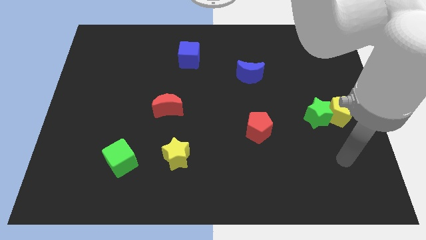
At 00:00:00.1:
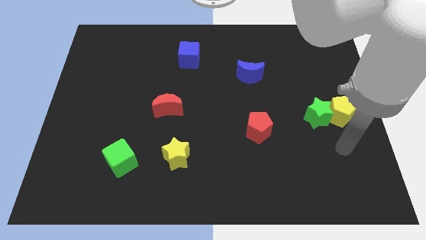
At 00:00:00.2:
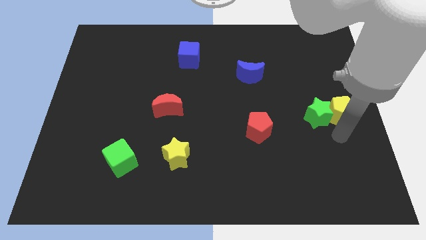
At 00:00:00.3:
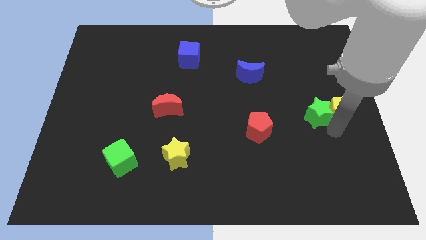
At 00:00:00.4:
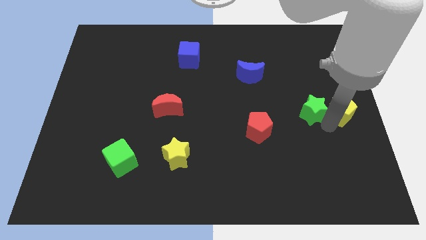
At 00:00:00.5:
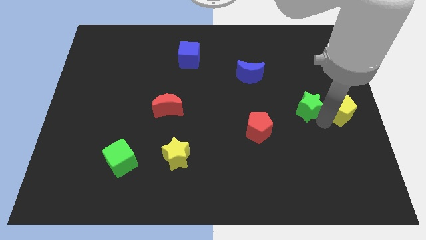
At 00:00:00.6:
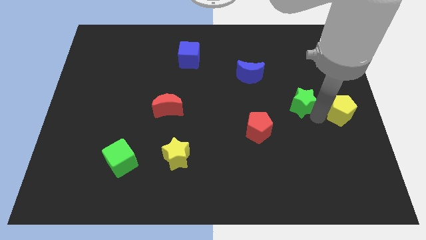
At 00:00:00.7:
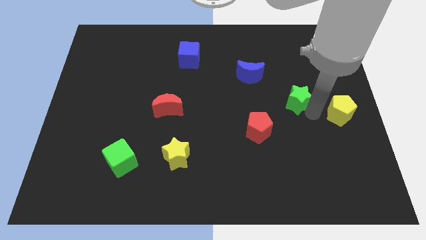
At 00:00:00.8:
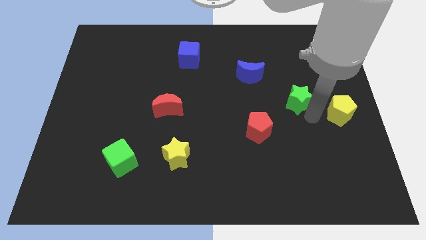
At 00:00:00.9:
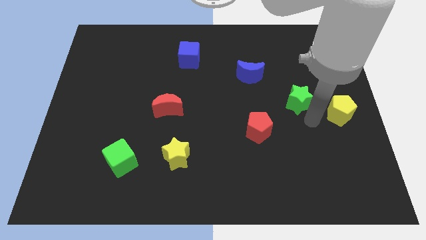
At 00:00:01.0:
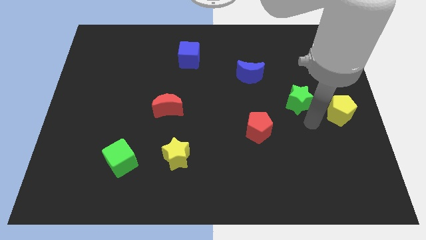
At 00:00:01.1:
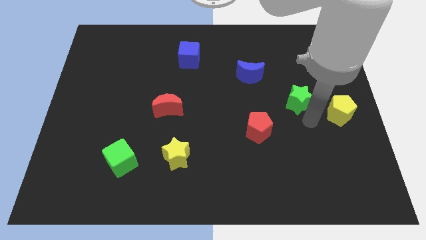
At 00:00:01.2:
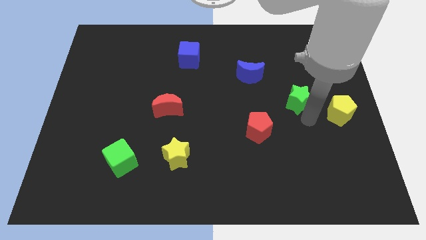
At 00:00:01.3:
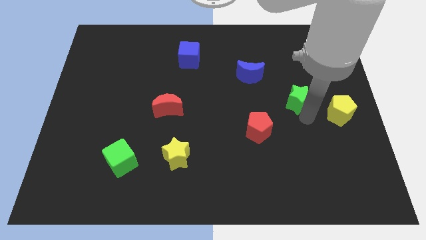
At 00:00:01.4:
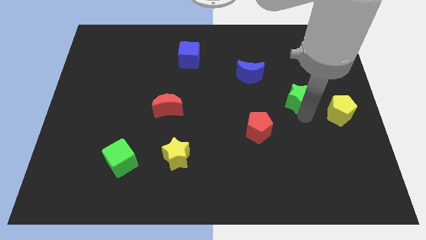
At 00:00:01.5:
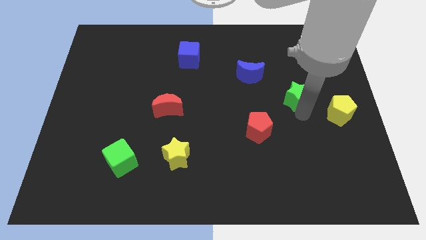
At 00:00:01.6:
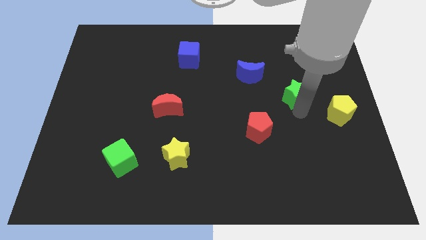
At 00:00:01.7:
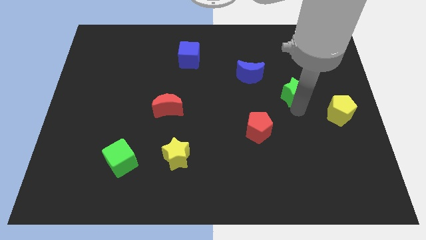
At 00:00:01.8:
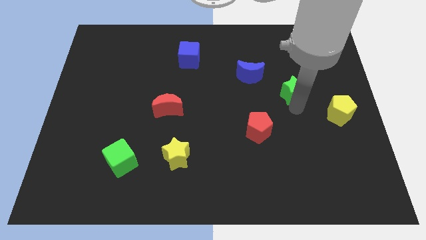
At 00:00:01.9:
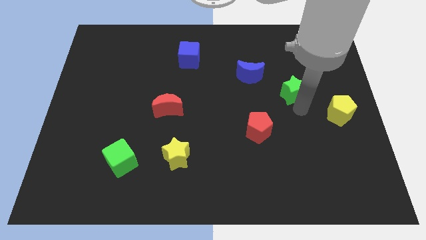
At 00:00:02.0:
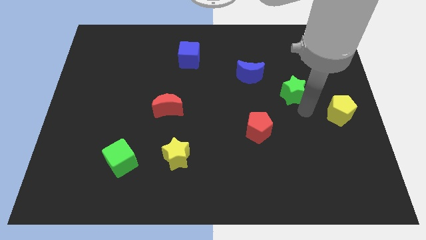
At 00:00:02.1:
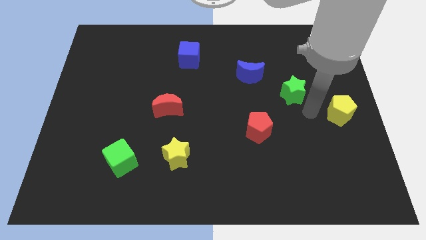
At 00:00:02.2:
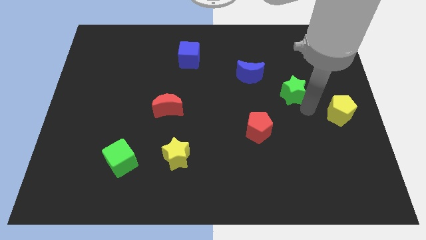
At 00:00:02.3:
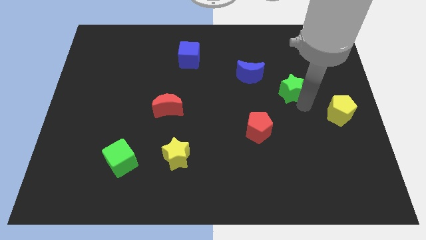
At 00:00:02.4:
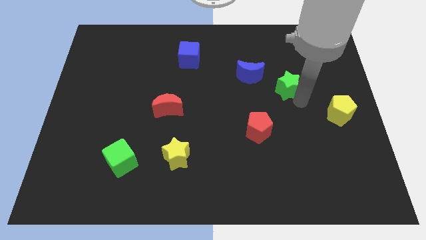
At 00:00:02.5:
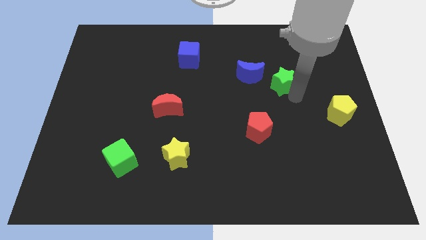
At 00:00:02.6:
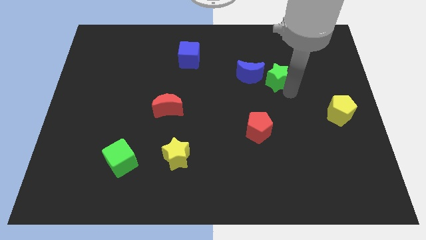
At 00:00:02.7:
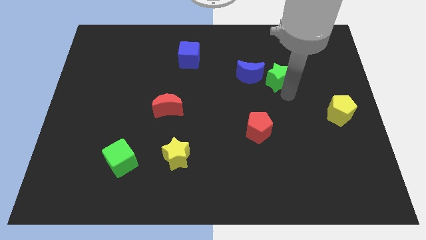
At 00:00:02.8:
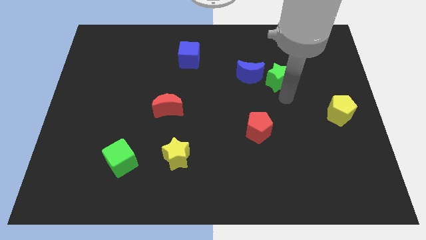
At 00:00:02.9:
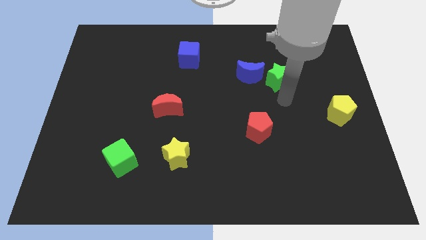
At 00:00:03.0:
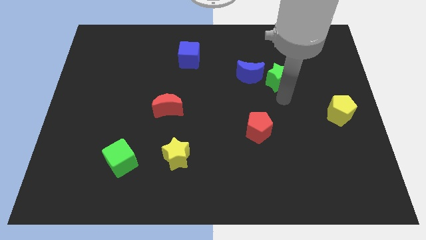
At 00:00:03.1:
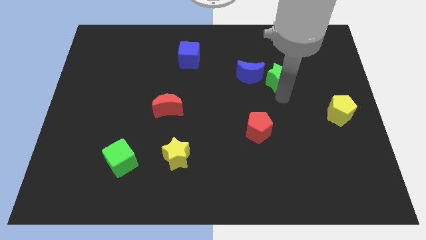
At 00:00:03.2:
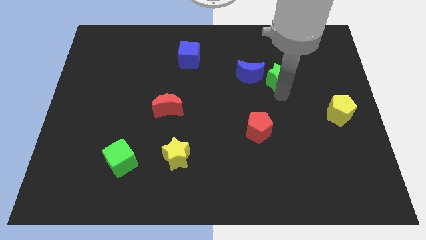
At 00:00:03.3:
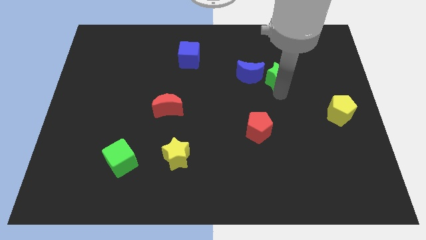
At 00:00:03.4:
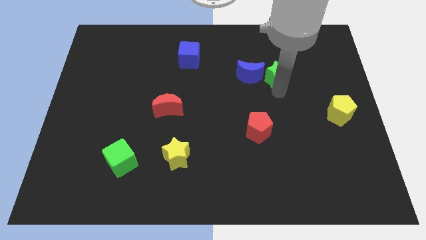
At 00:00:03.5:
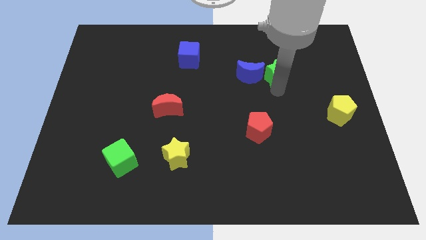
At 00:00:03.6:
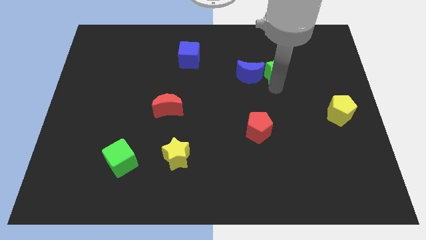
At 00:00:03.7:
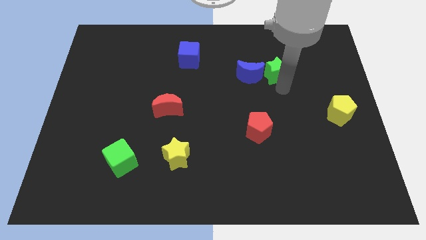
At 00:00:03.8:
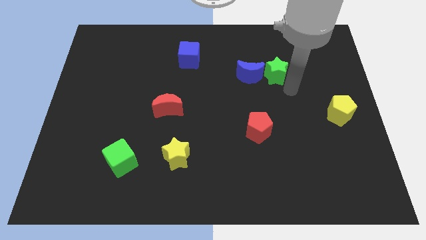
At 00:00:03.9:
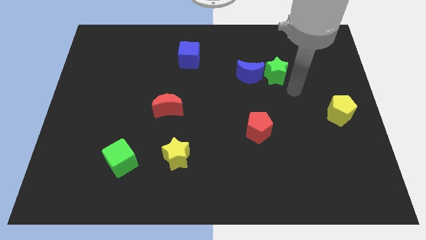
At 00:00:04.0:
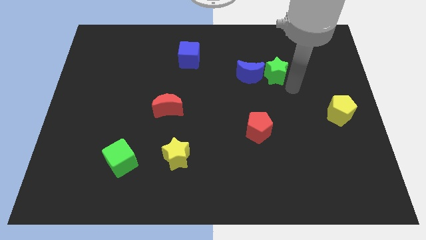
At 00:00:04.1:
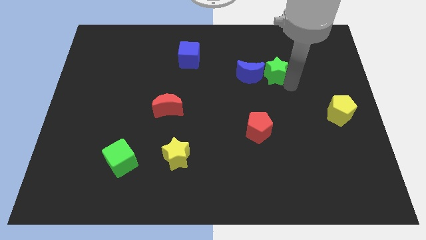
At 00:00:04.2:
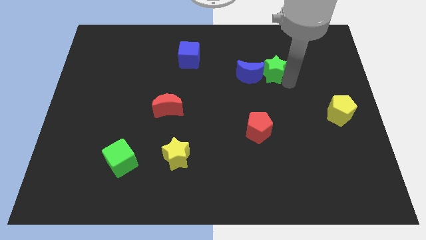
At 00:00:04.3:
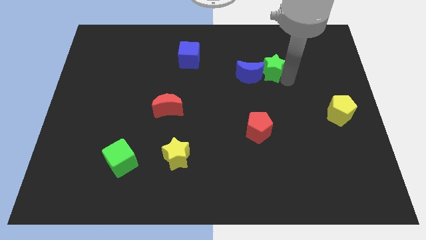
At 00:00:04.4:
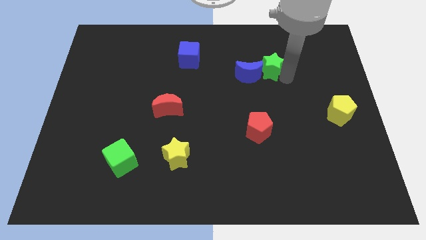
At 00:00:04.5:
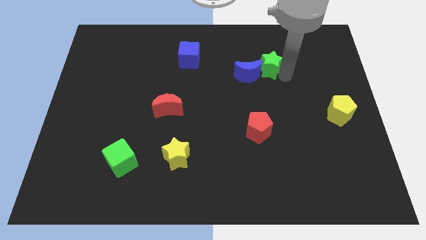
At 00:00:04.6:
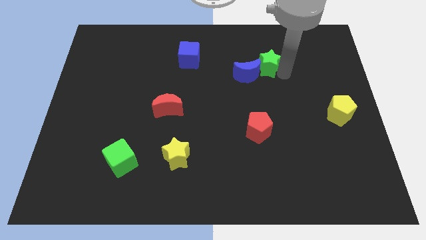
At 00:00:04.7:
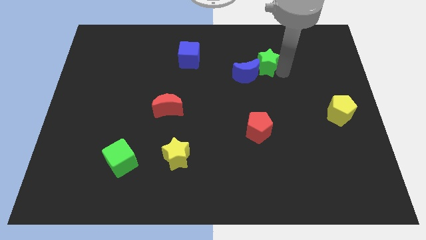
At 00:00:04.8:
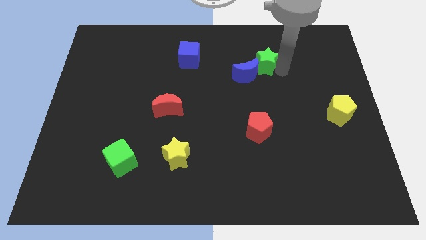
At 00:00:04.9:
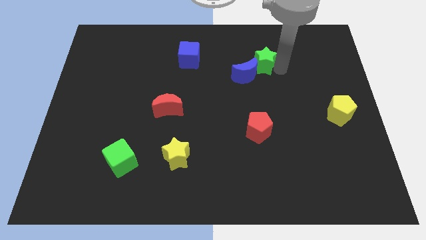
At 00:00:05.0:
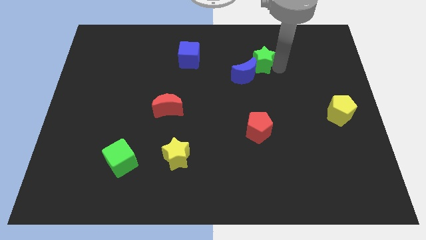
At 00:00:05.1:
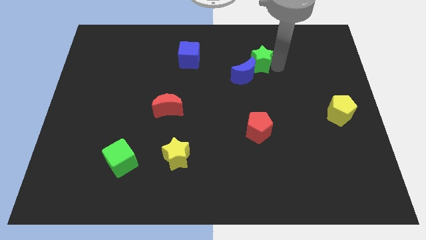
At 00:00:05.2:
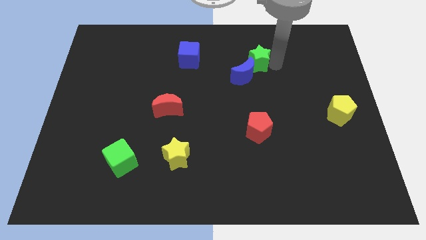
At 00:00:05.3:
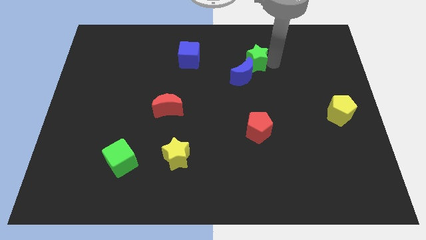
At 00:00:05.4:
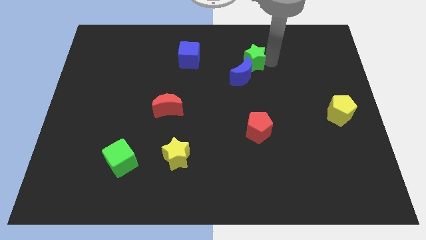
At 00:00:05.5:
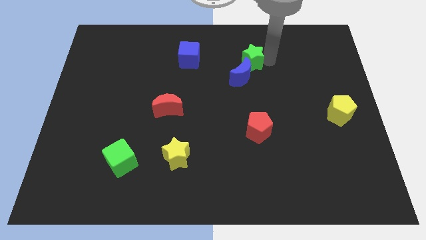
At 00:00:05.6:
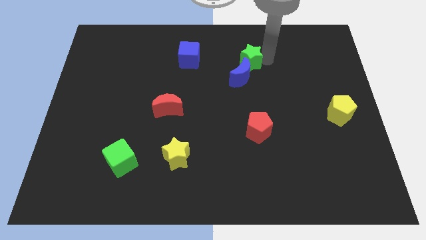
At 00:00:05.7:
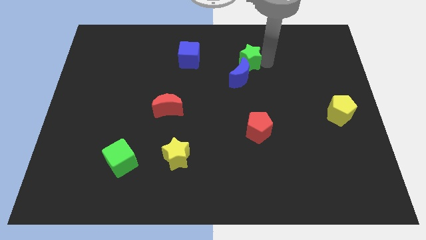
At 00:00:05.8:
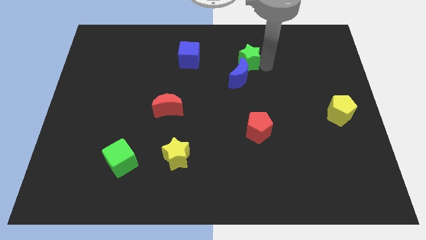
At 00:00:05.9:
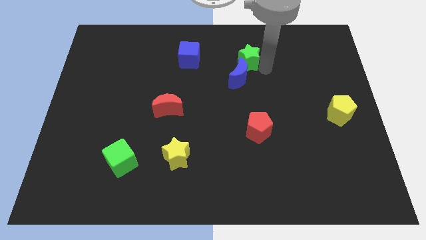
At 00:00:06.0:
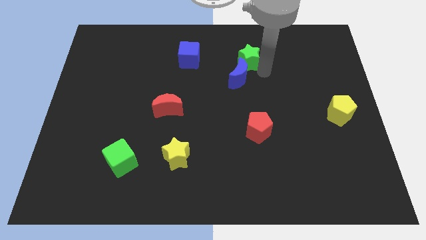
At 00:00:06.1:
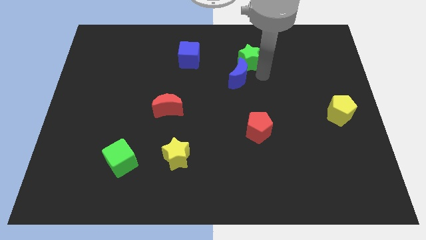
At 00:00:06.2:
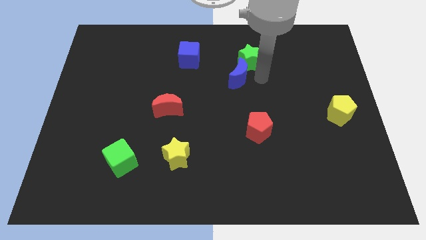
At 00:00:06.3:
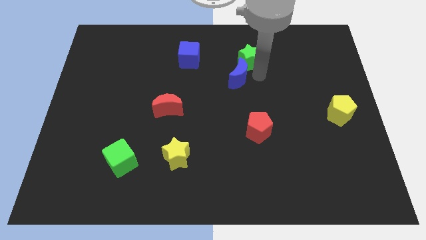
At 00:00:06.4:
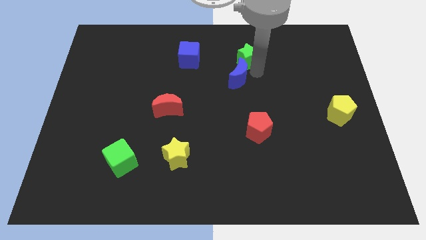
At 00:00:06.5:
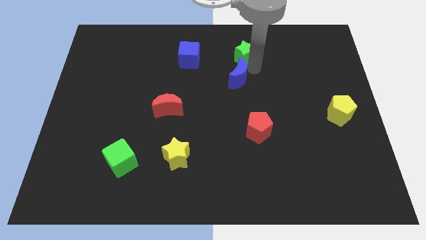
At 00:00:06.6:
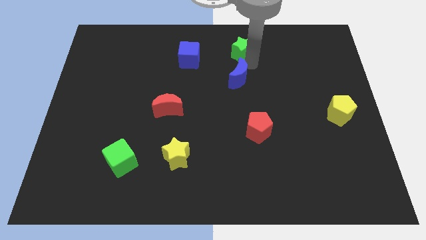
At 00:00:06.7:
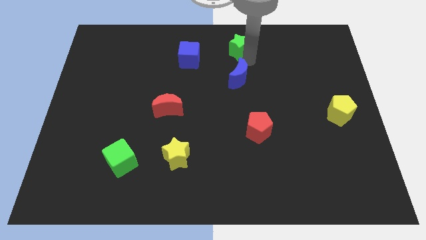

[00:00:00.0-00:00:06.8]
slide the green star to the top side
